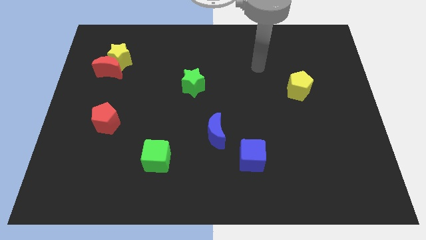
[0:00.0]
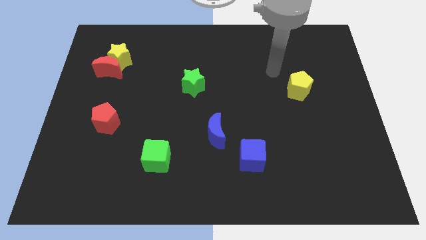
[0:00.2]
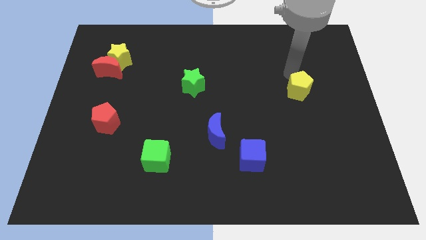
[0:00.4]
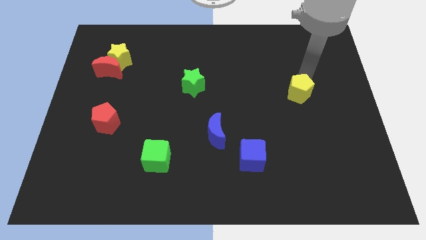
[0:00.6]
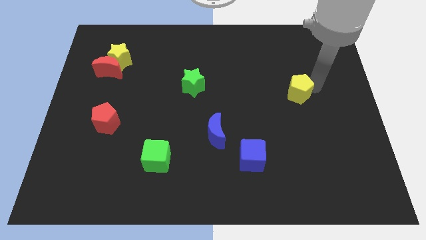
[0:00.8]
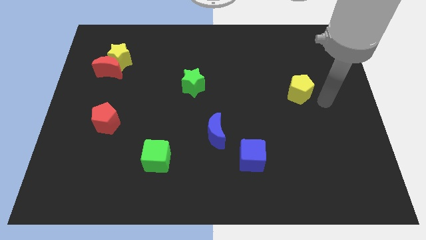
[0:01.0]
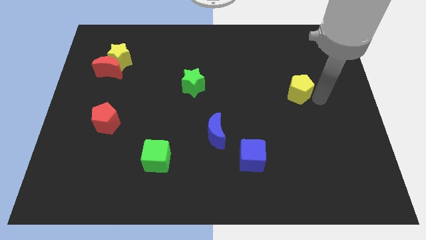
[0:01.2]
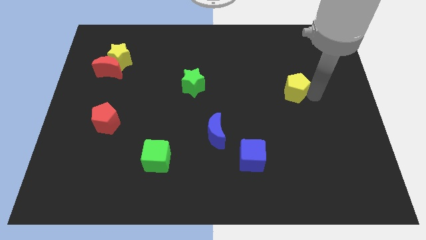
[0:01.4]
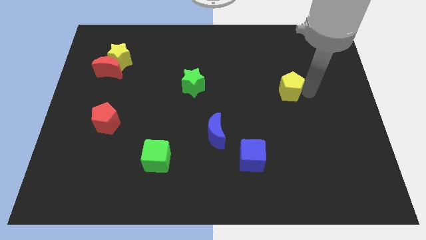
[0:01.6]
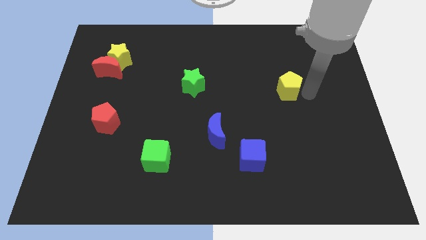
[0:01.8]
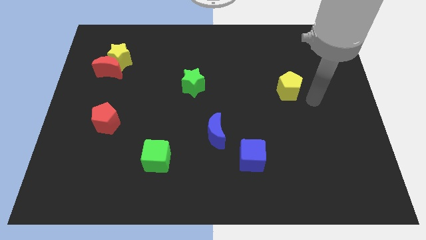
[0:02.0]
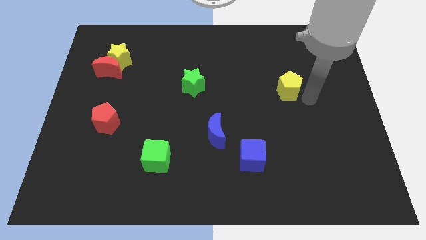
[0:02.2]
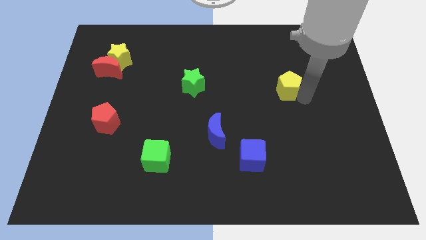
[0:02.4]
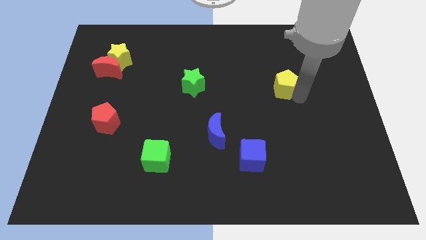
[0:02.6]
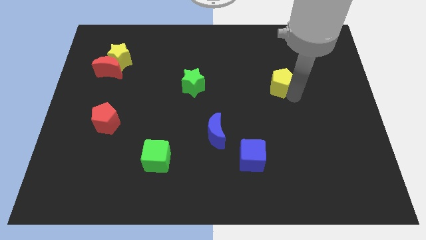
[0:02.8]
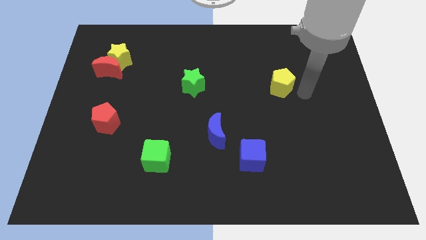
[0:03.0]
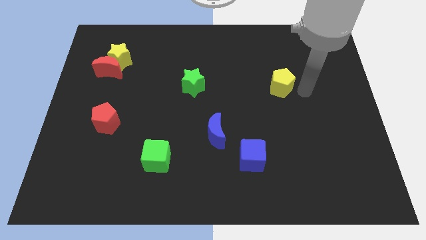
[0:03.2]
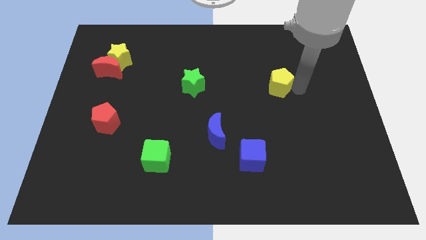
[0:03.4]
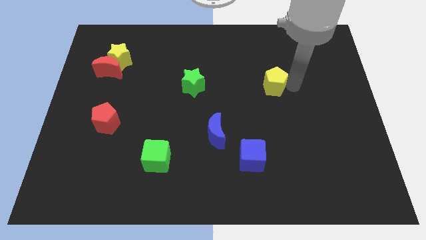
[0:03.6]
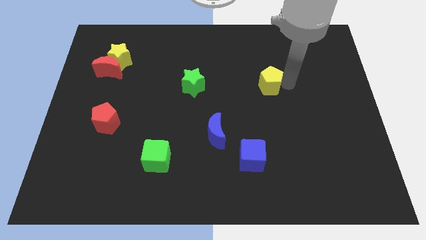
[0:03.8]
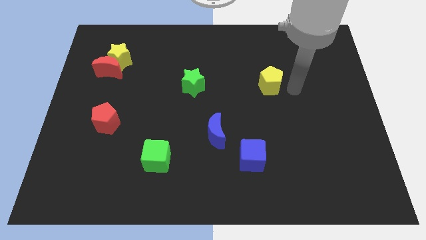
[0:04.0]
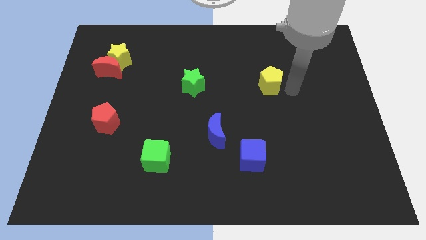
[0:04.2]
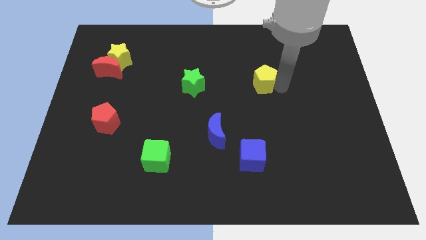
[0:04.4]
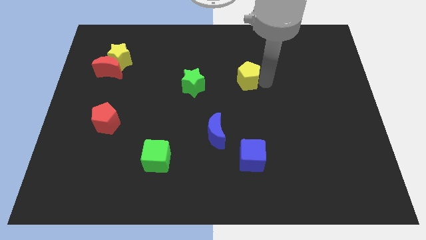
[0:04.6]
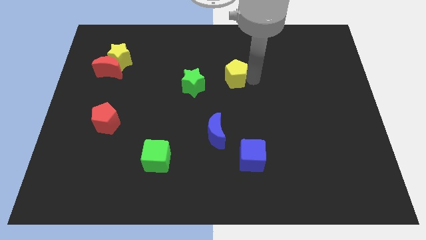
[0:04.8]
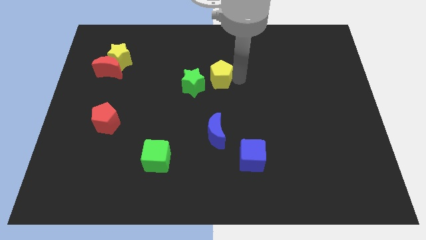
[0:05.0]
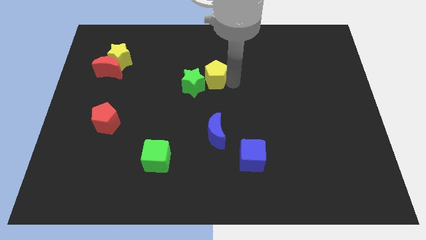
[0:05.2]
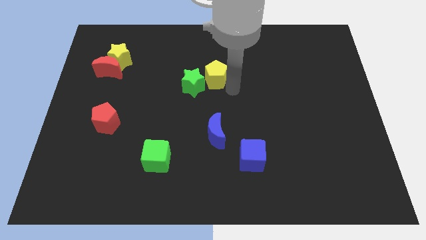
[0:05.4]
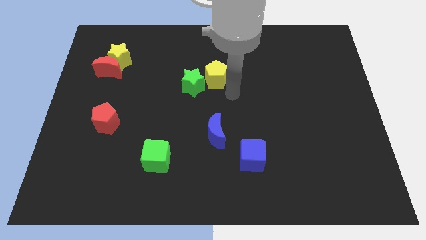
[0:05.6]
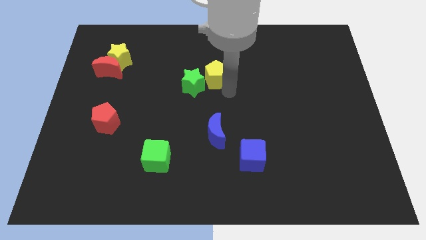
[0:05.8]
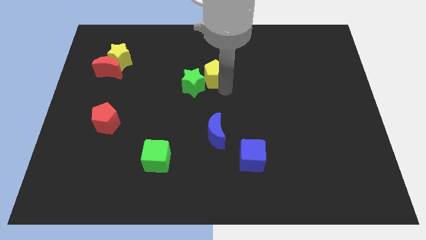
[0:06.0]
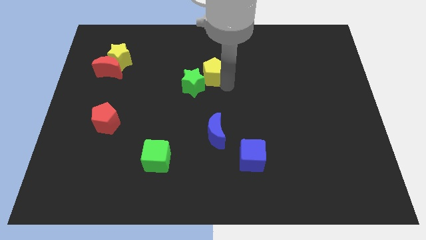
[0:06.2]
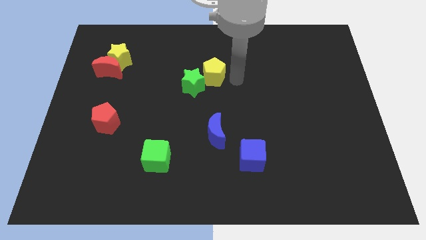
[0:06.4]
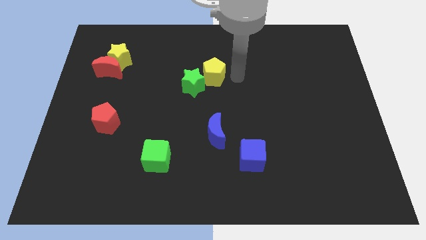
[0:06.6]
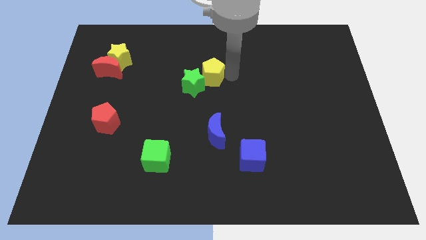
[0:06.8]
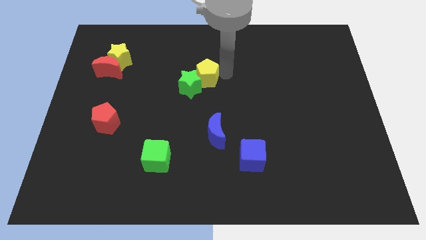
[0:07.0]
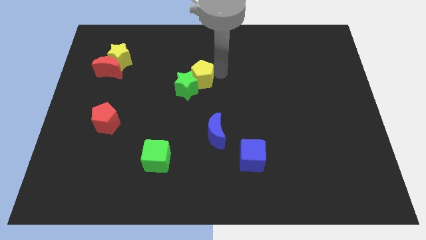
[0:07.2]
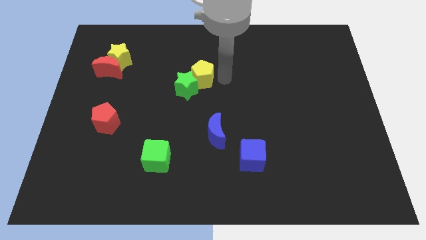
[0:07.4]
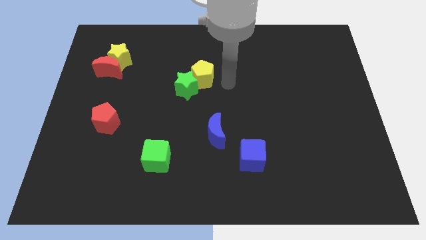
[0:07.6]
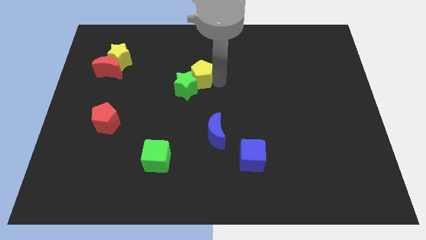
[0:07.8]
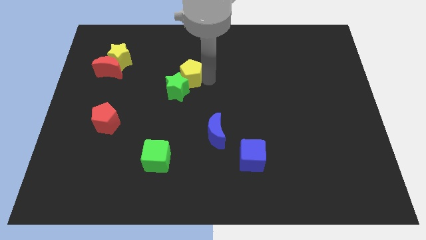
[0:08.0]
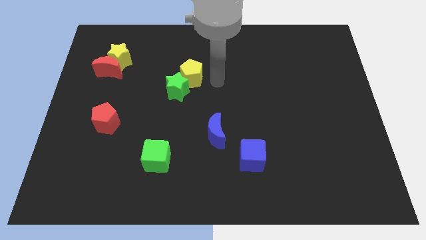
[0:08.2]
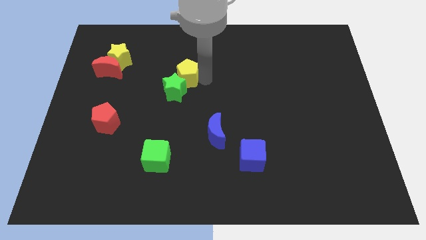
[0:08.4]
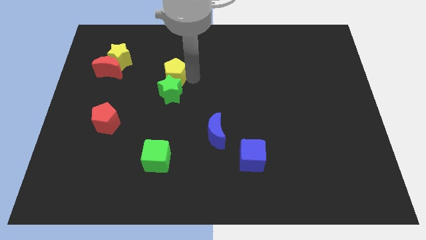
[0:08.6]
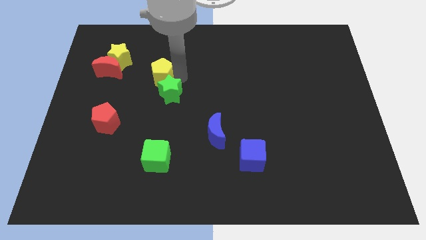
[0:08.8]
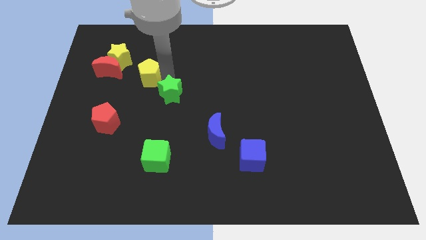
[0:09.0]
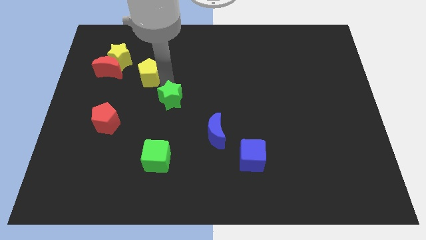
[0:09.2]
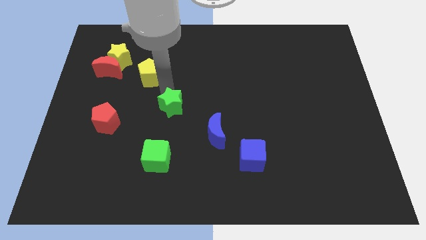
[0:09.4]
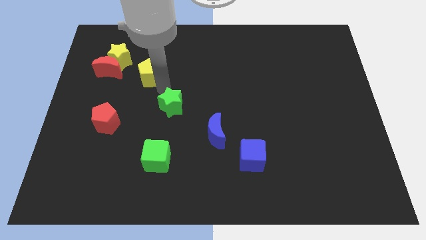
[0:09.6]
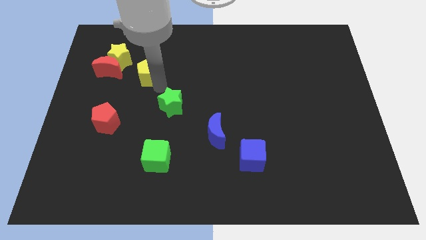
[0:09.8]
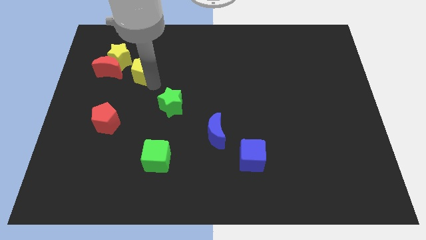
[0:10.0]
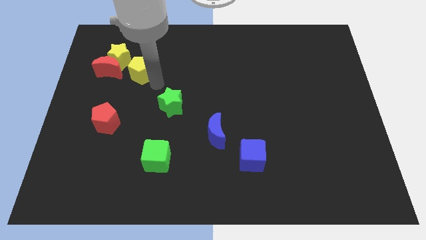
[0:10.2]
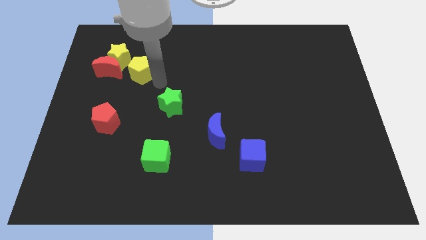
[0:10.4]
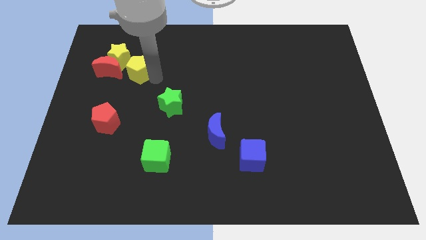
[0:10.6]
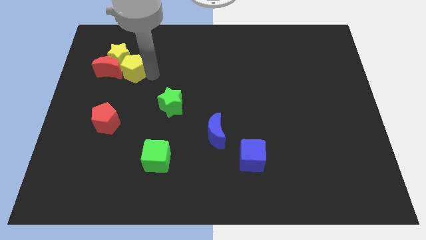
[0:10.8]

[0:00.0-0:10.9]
move the yellow pentagon to the yellow star

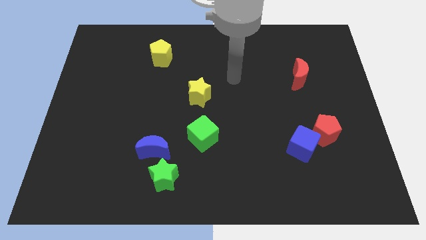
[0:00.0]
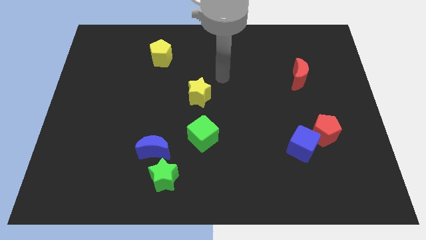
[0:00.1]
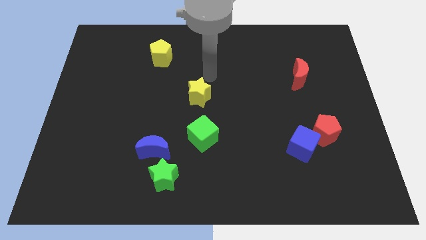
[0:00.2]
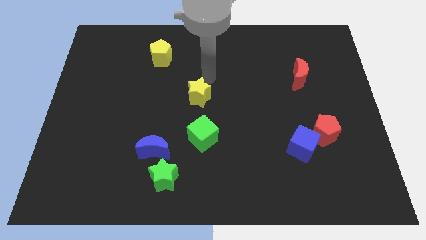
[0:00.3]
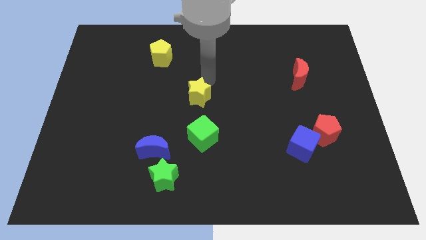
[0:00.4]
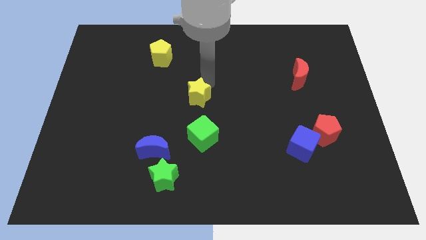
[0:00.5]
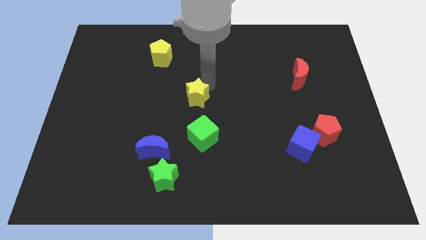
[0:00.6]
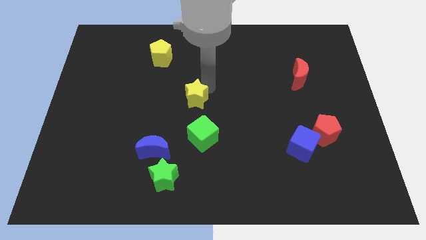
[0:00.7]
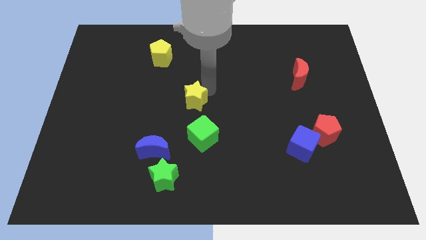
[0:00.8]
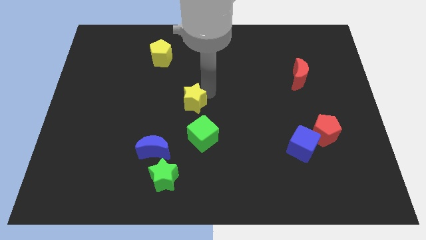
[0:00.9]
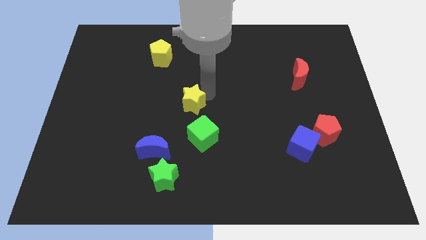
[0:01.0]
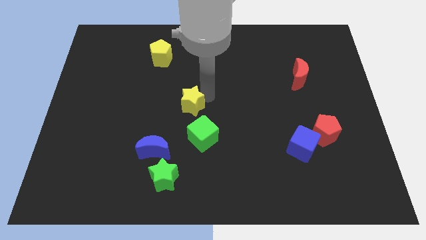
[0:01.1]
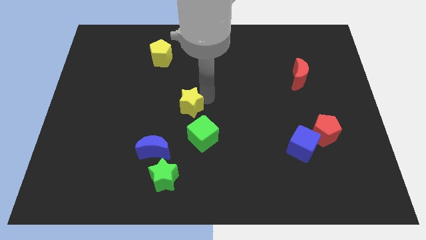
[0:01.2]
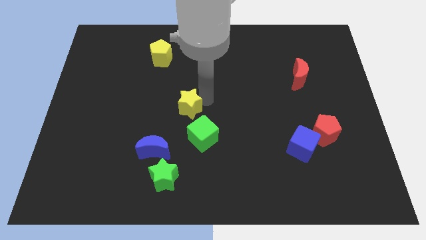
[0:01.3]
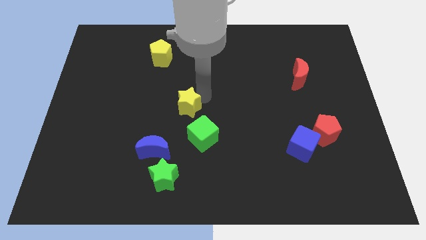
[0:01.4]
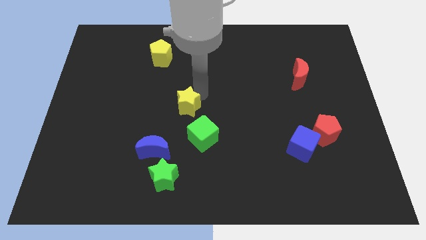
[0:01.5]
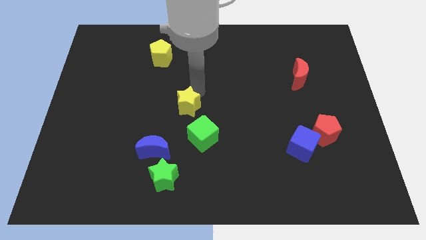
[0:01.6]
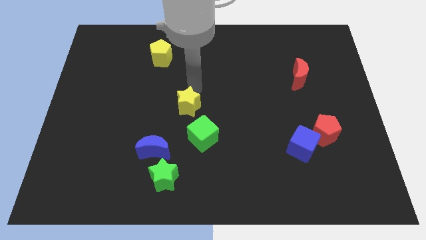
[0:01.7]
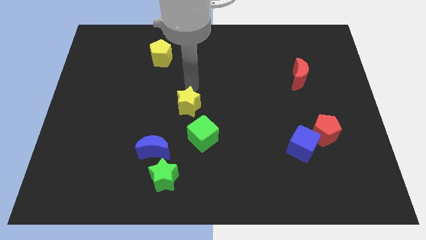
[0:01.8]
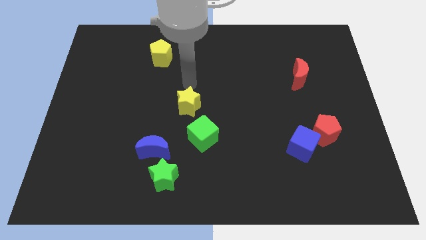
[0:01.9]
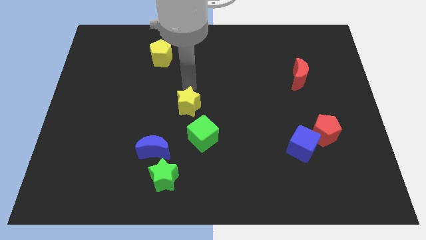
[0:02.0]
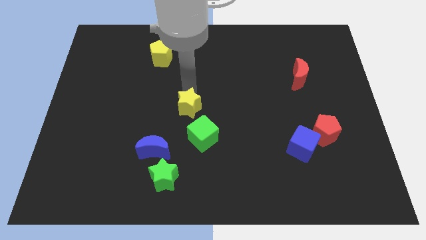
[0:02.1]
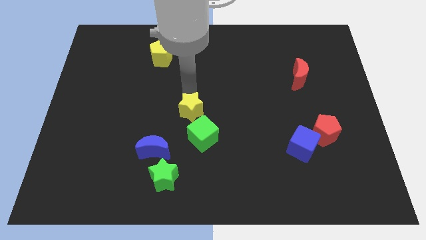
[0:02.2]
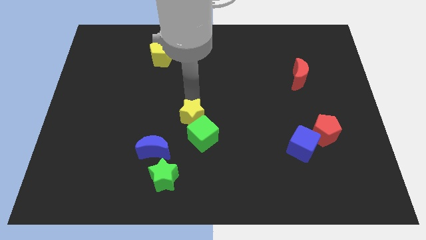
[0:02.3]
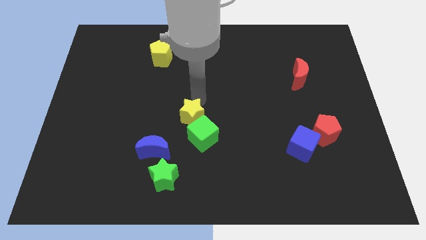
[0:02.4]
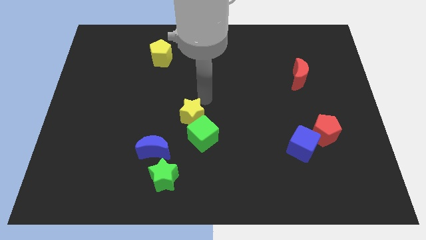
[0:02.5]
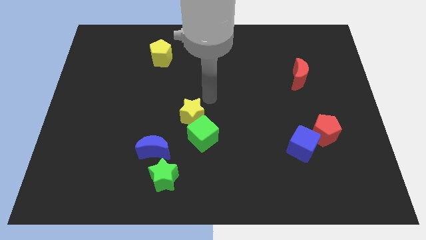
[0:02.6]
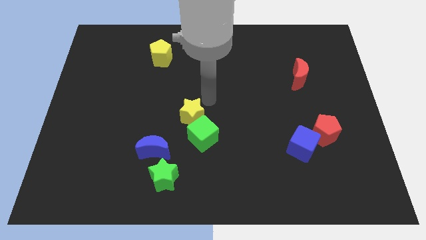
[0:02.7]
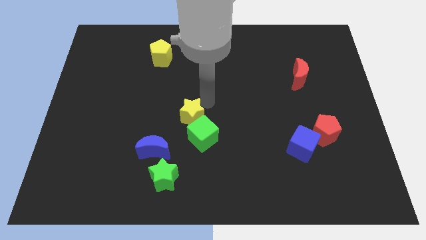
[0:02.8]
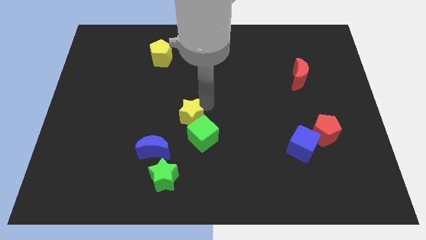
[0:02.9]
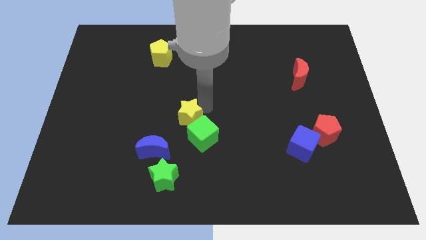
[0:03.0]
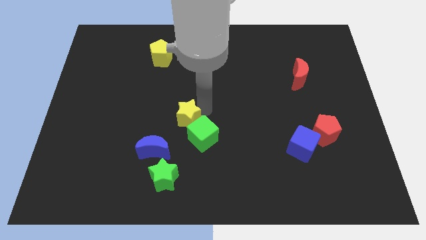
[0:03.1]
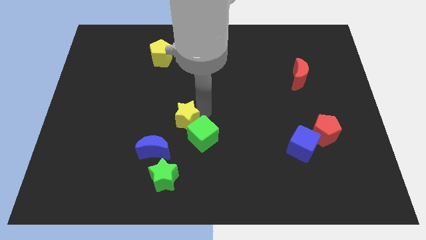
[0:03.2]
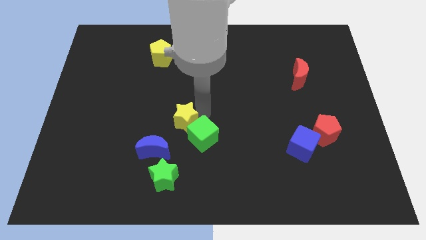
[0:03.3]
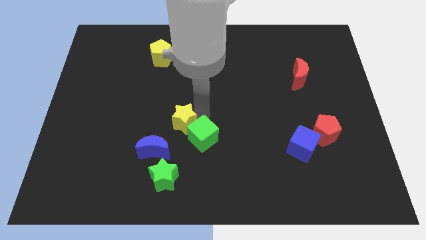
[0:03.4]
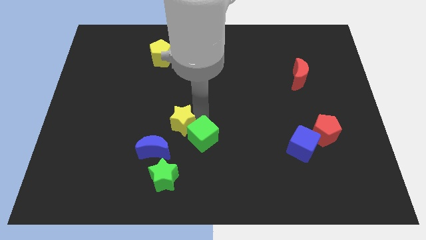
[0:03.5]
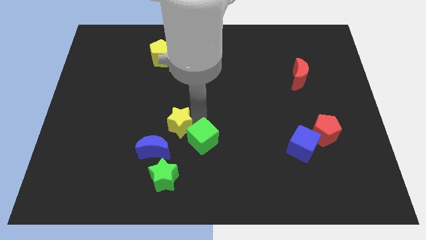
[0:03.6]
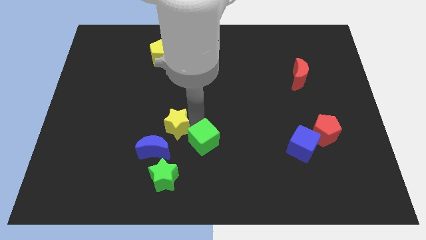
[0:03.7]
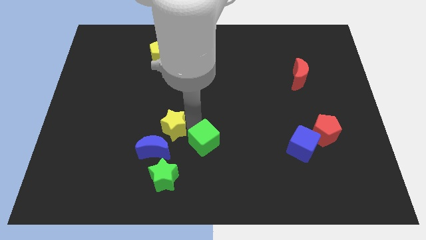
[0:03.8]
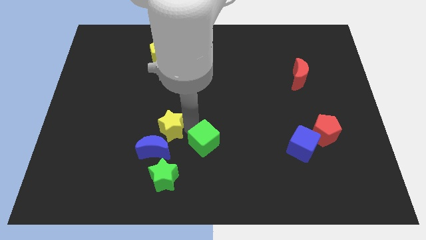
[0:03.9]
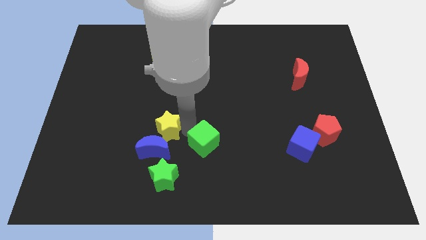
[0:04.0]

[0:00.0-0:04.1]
move the yellow star next to the blue moon
